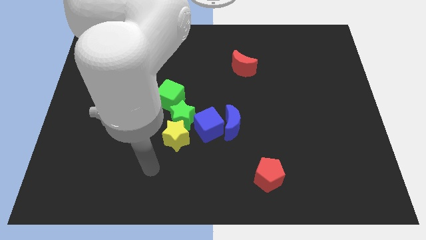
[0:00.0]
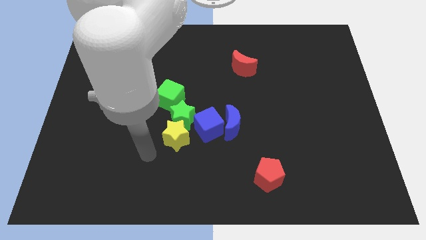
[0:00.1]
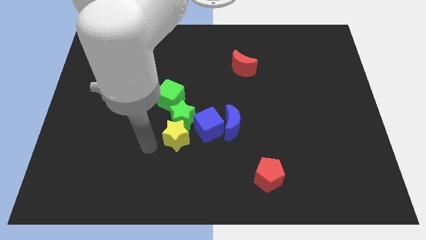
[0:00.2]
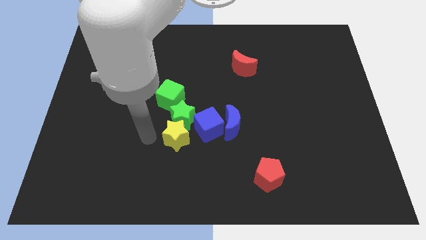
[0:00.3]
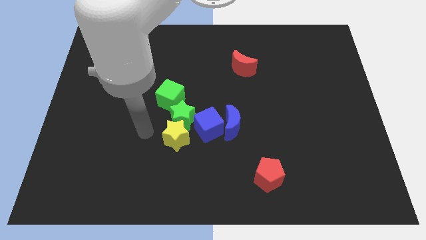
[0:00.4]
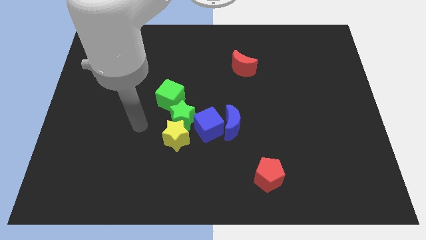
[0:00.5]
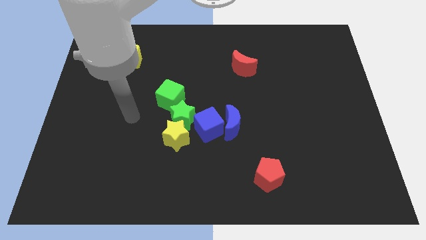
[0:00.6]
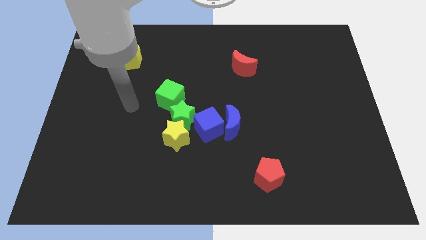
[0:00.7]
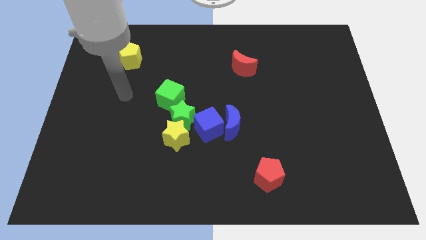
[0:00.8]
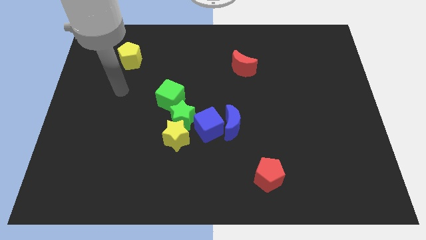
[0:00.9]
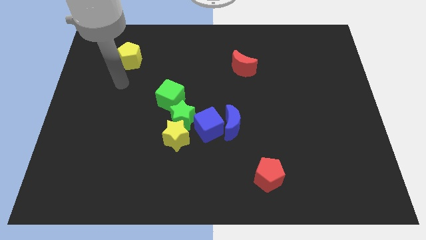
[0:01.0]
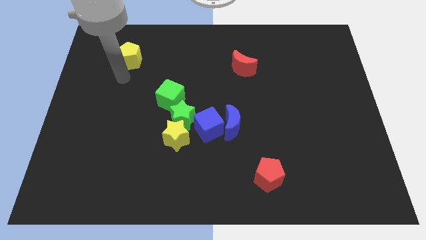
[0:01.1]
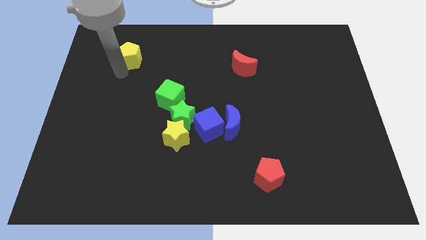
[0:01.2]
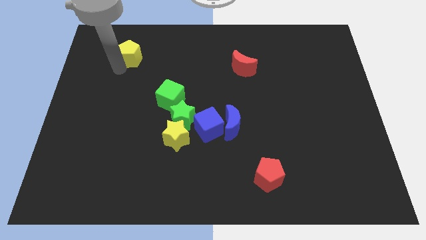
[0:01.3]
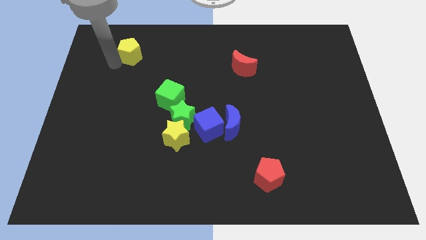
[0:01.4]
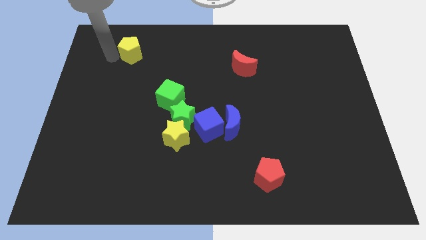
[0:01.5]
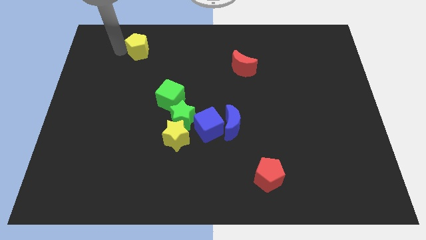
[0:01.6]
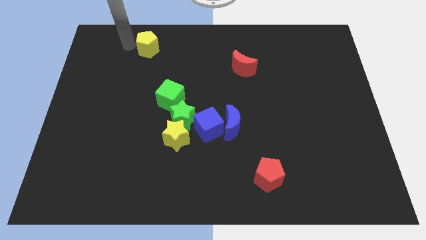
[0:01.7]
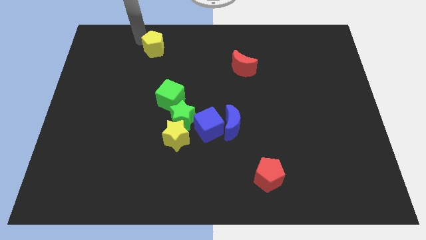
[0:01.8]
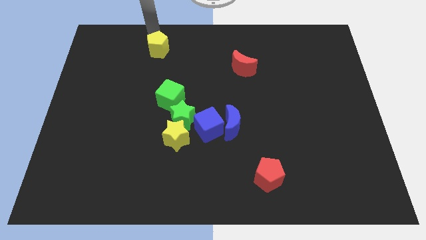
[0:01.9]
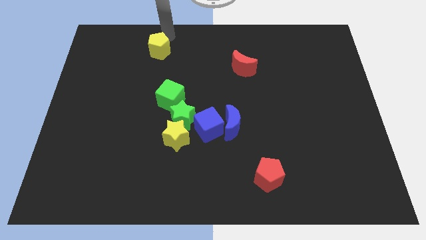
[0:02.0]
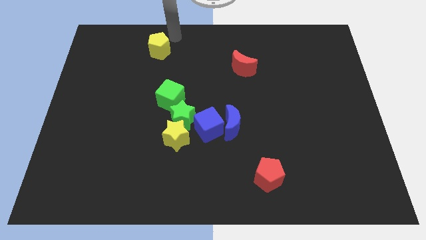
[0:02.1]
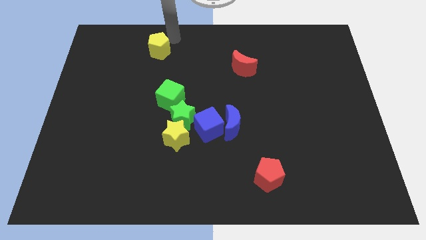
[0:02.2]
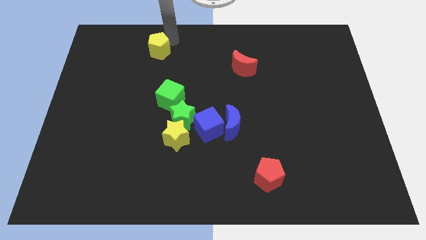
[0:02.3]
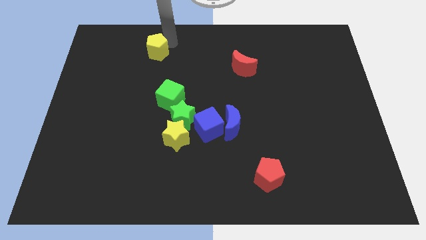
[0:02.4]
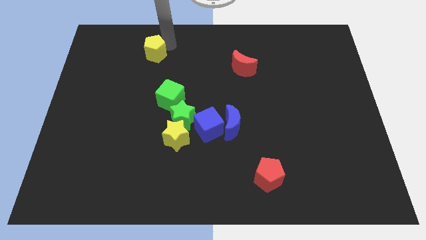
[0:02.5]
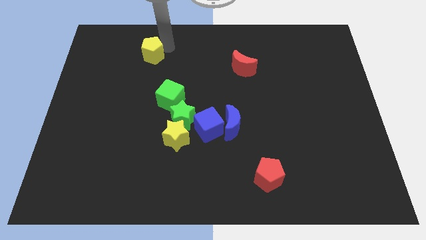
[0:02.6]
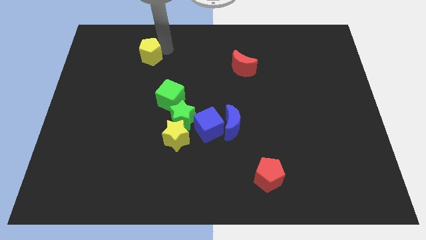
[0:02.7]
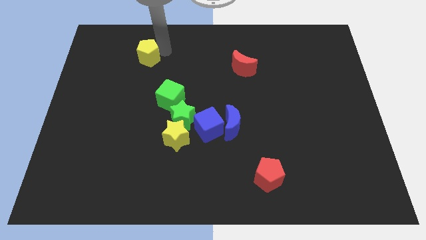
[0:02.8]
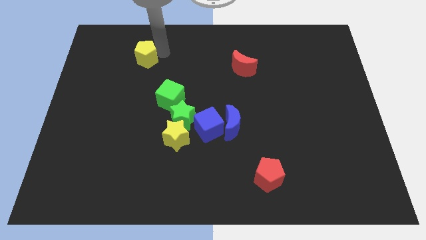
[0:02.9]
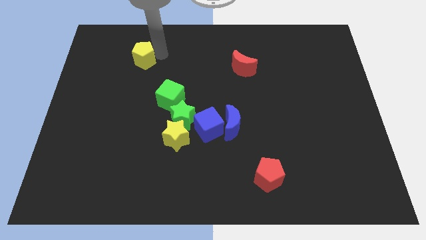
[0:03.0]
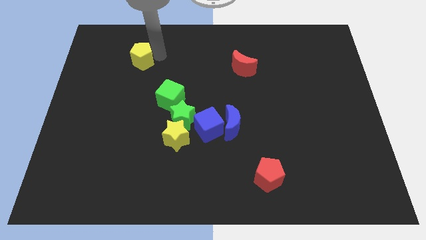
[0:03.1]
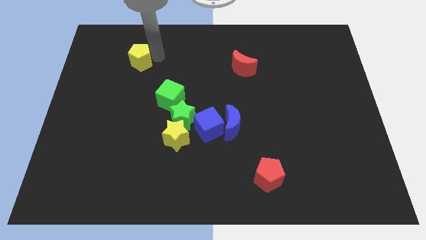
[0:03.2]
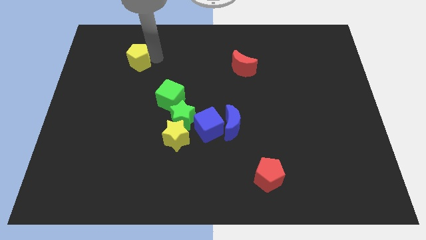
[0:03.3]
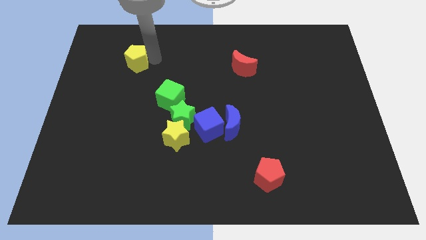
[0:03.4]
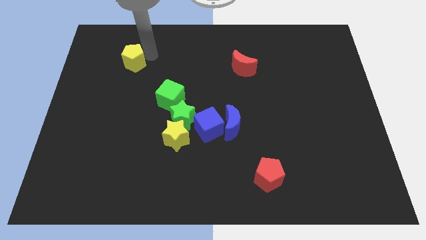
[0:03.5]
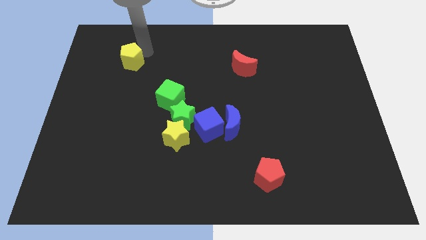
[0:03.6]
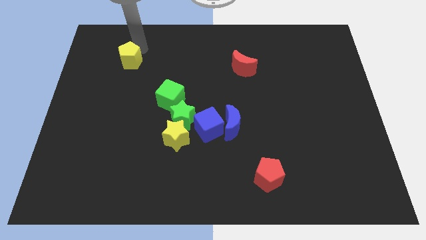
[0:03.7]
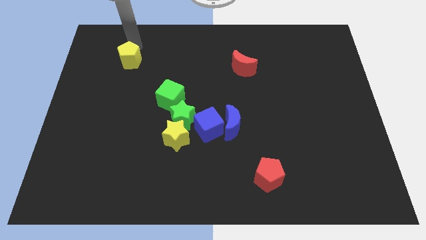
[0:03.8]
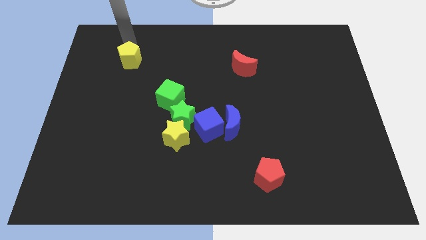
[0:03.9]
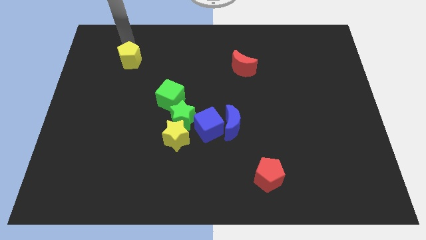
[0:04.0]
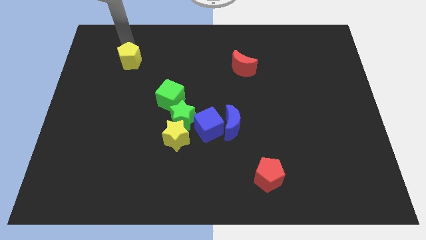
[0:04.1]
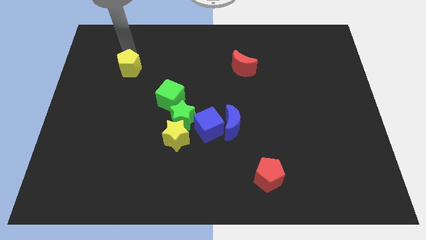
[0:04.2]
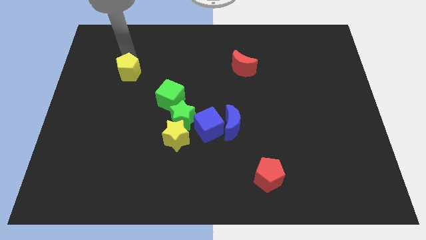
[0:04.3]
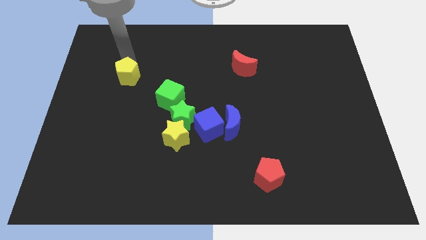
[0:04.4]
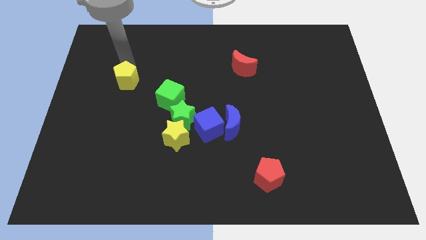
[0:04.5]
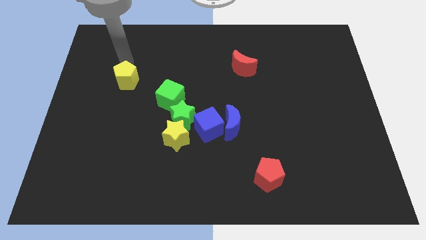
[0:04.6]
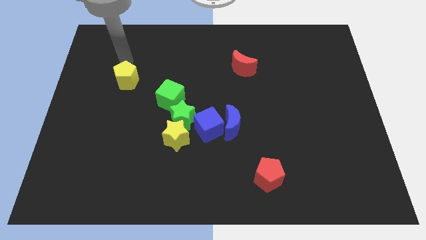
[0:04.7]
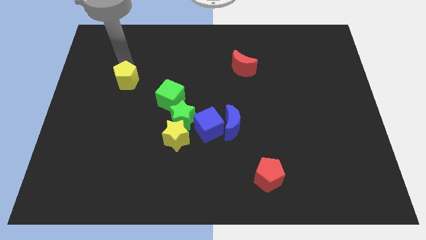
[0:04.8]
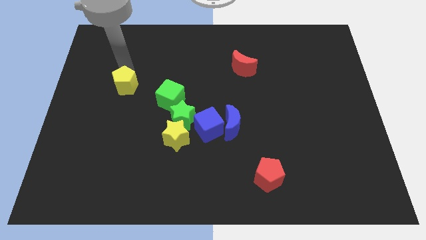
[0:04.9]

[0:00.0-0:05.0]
push the yellow pentagon to the left side of the green cube

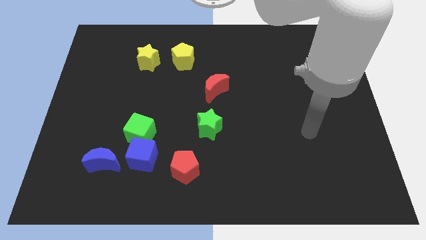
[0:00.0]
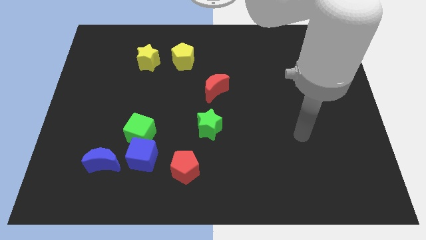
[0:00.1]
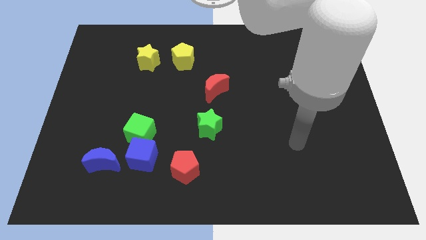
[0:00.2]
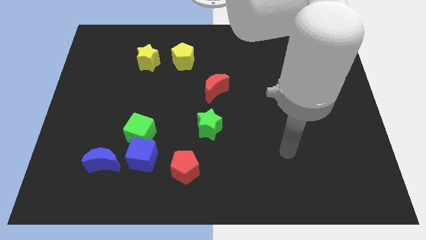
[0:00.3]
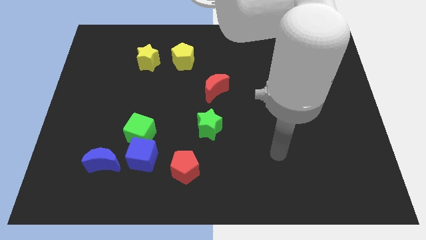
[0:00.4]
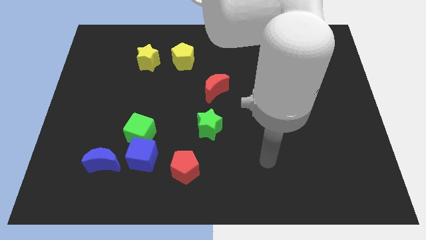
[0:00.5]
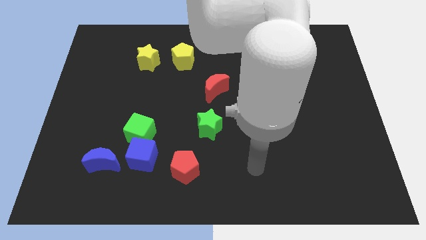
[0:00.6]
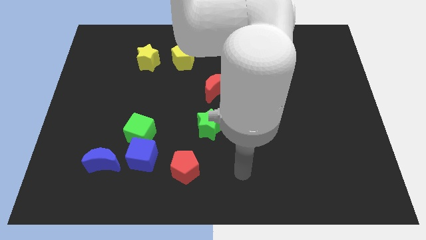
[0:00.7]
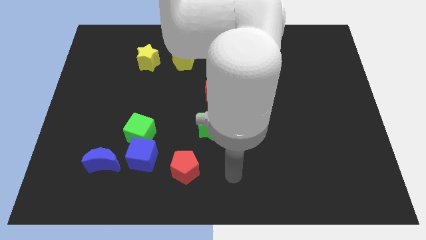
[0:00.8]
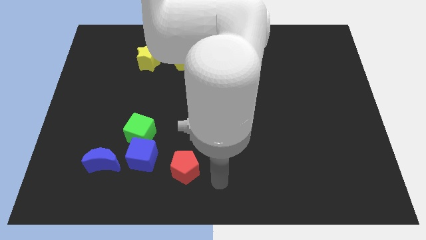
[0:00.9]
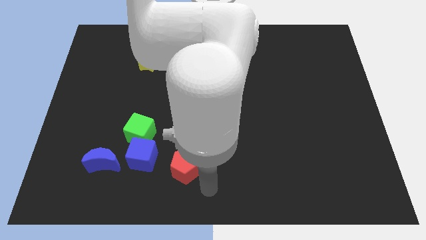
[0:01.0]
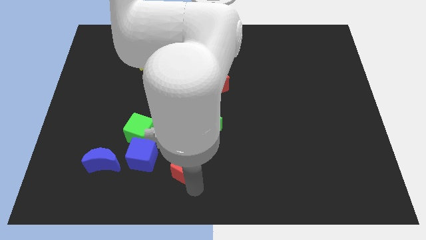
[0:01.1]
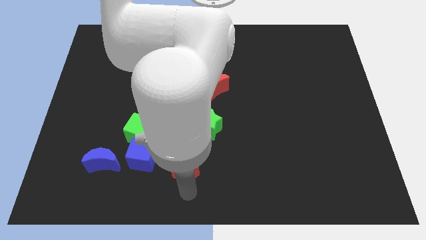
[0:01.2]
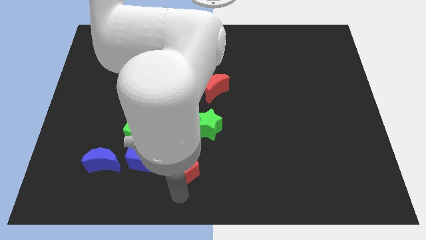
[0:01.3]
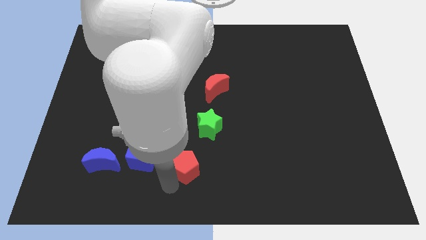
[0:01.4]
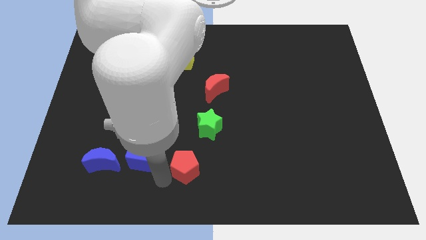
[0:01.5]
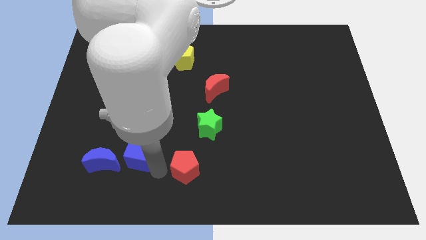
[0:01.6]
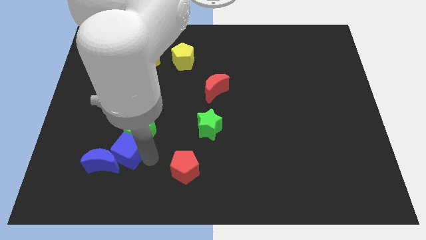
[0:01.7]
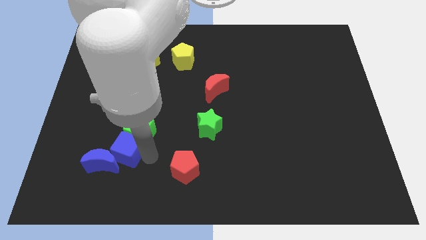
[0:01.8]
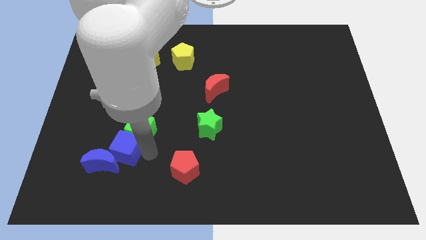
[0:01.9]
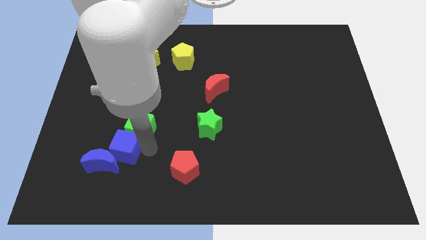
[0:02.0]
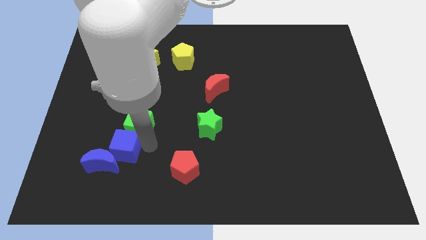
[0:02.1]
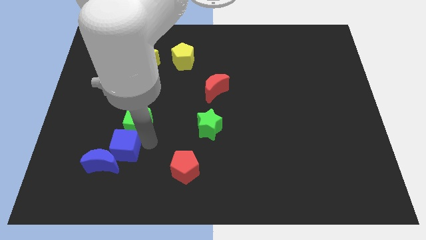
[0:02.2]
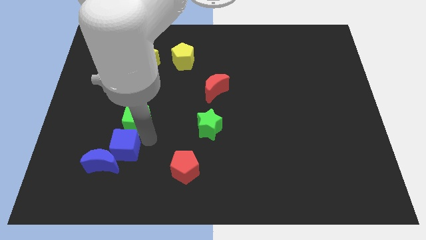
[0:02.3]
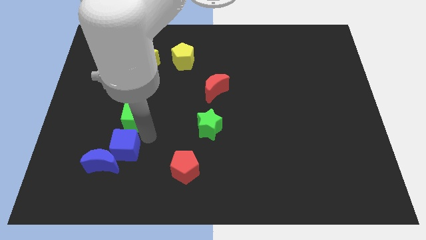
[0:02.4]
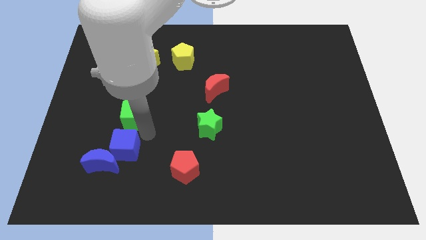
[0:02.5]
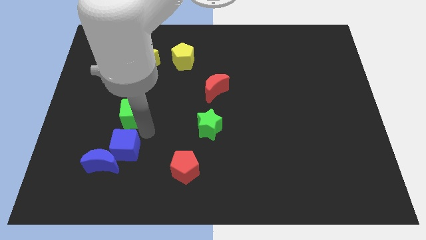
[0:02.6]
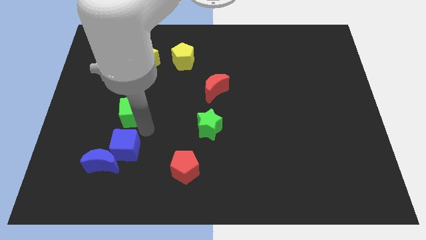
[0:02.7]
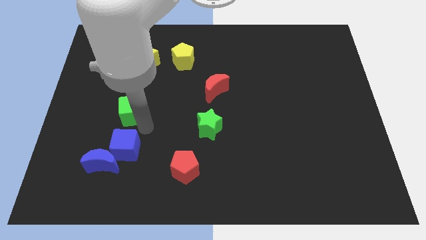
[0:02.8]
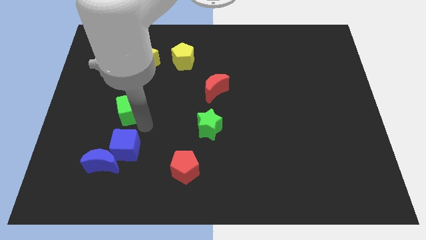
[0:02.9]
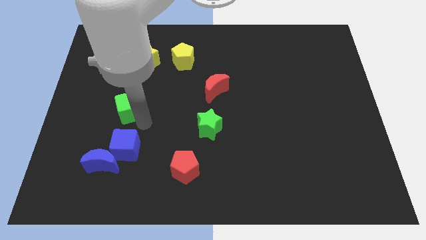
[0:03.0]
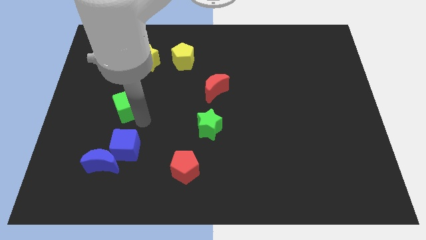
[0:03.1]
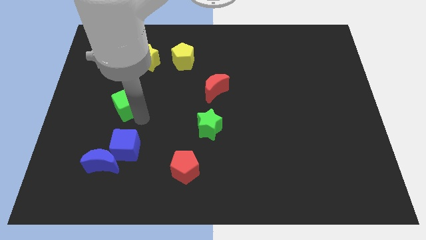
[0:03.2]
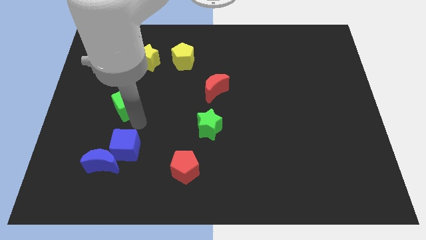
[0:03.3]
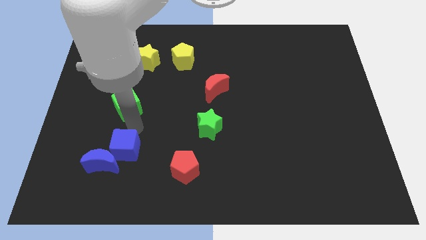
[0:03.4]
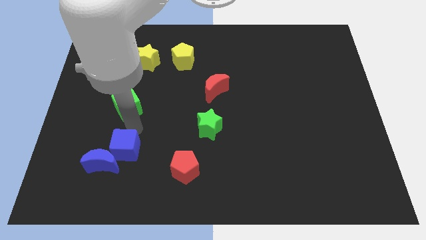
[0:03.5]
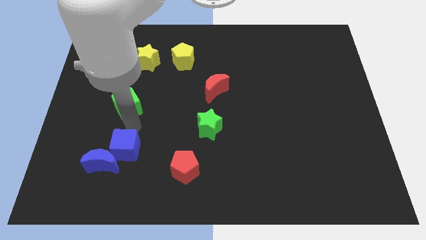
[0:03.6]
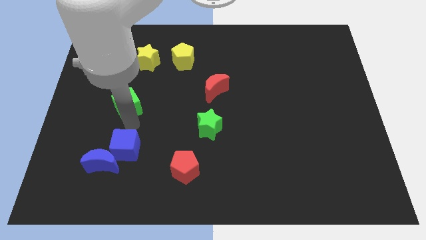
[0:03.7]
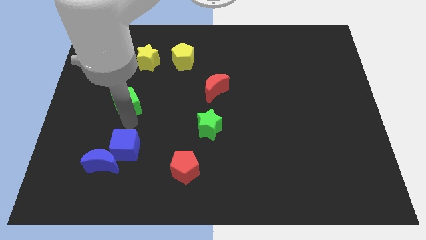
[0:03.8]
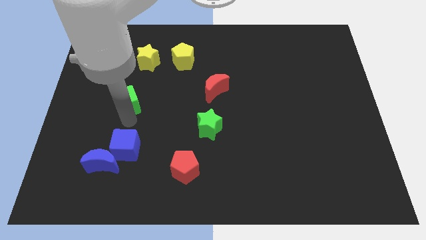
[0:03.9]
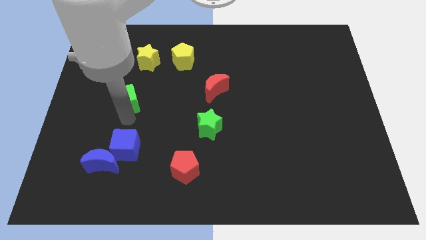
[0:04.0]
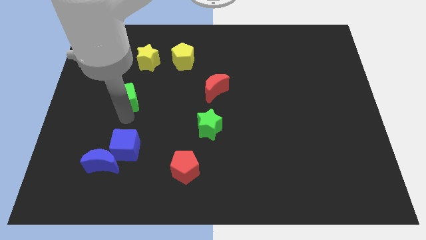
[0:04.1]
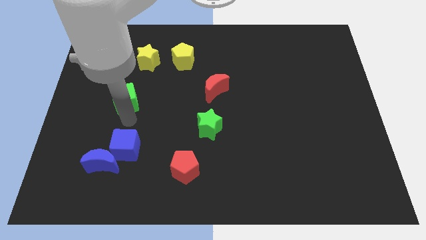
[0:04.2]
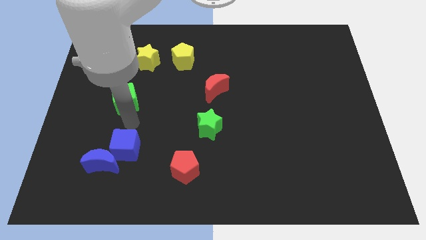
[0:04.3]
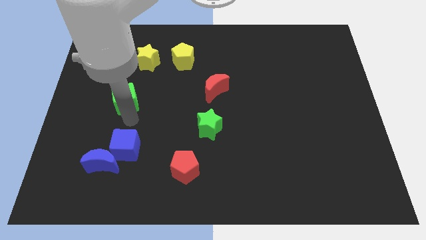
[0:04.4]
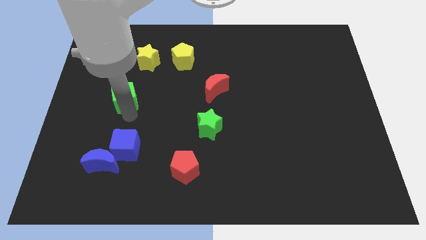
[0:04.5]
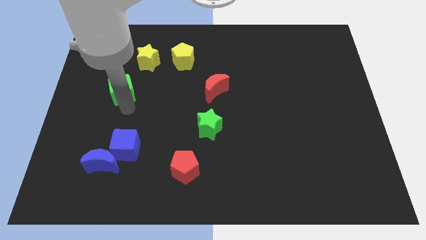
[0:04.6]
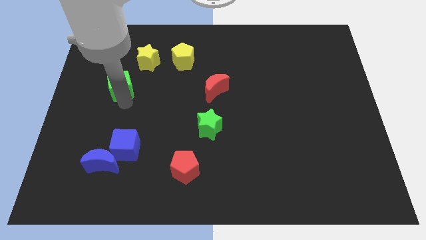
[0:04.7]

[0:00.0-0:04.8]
push the green cube to the bottom left of the yellow star
